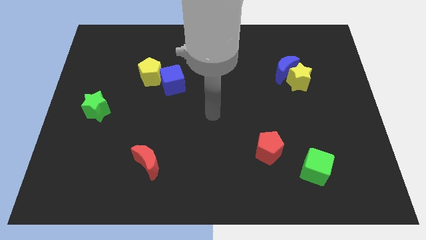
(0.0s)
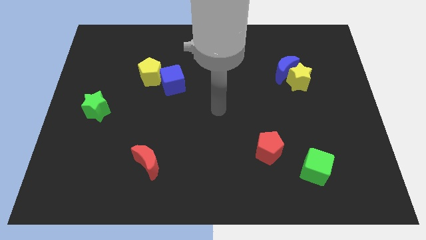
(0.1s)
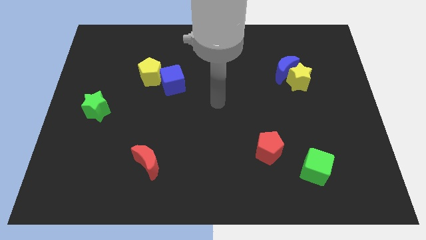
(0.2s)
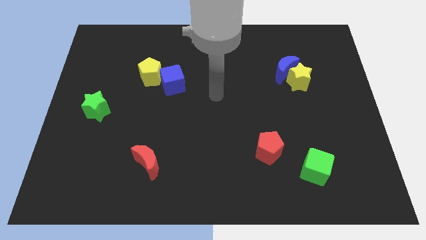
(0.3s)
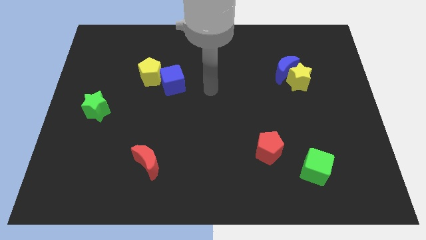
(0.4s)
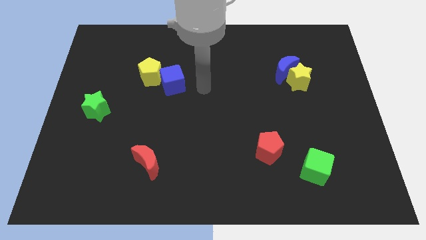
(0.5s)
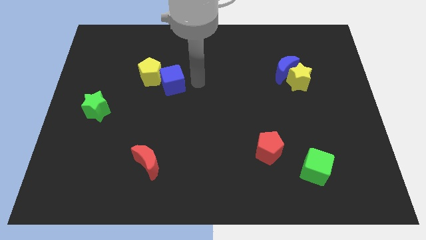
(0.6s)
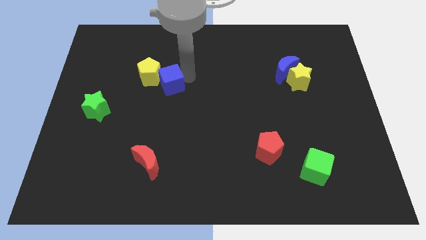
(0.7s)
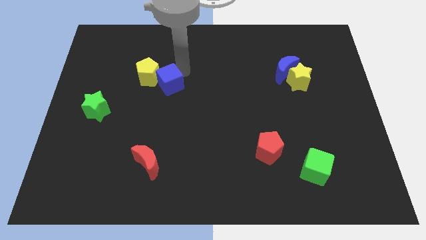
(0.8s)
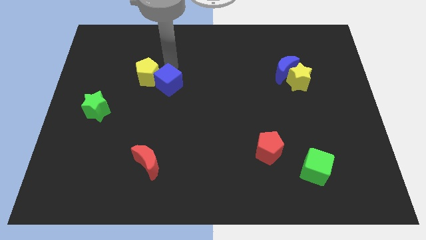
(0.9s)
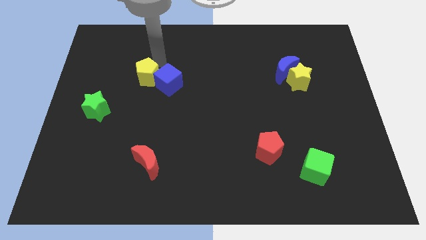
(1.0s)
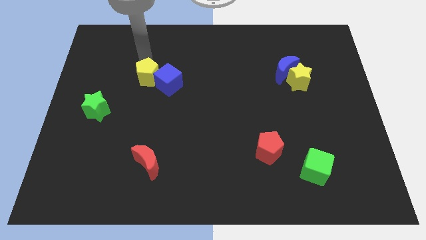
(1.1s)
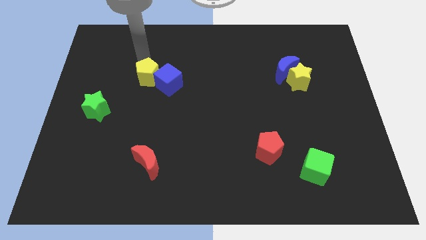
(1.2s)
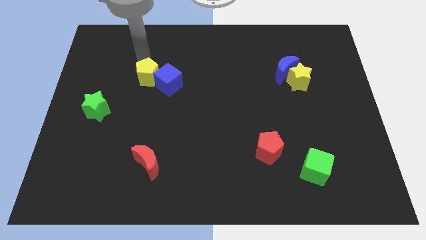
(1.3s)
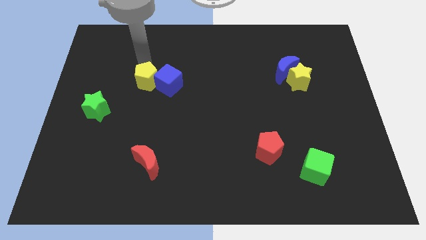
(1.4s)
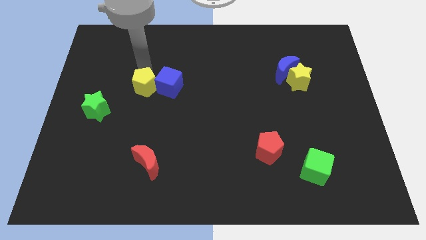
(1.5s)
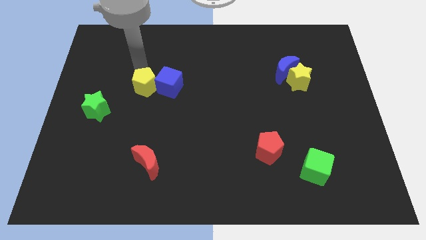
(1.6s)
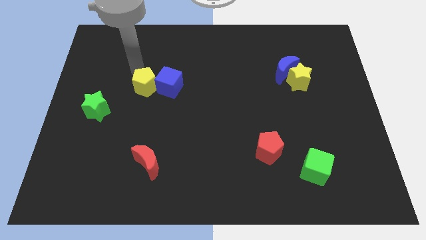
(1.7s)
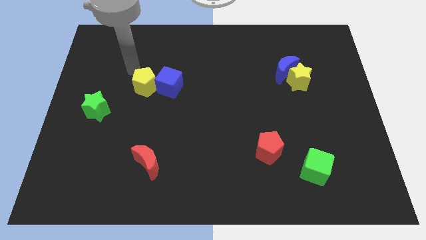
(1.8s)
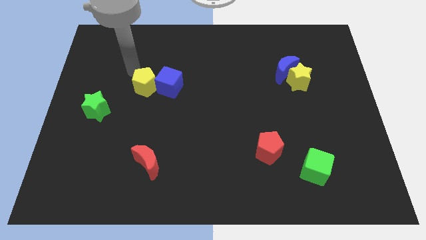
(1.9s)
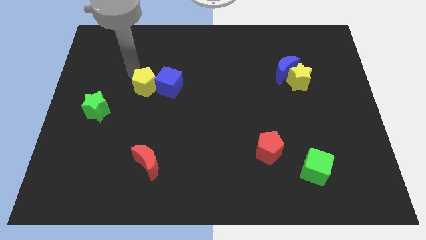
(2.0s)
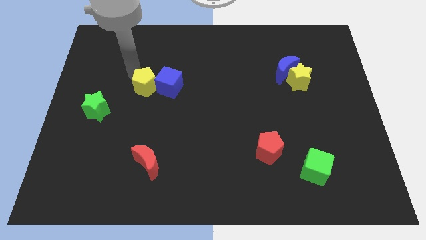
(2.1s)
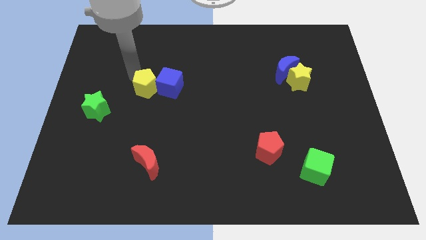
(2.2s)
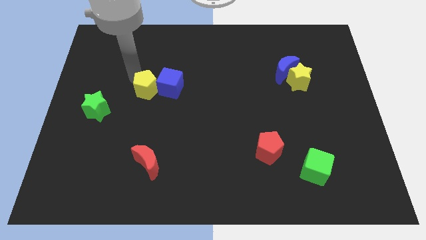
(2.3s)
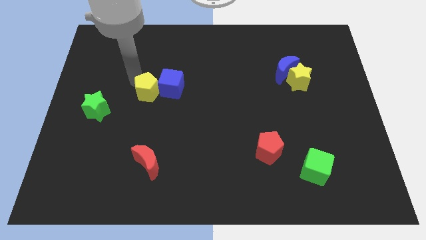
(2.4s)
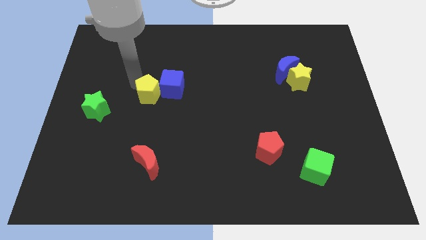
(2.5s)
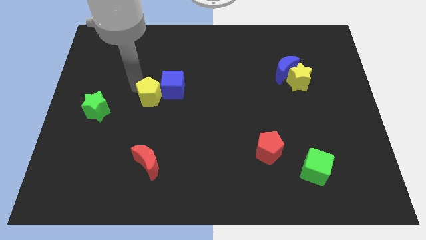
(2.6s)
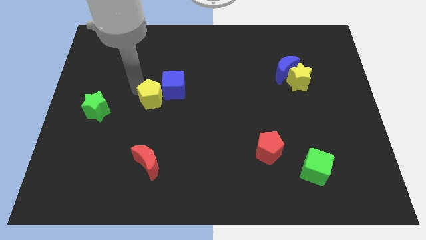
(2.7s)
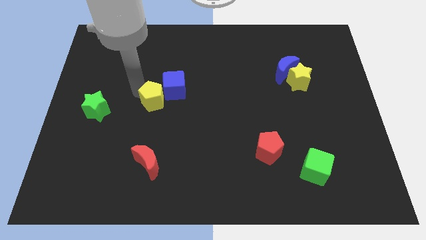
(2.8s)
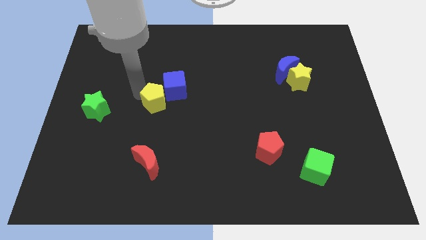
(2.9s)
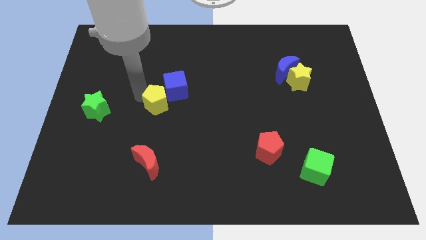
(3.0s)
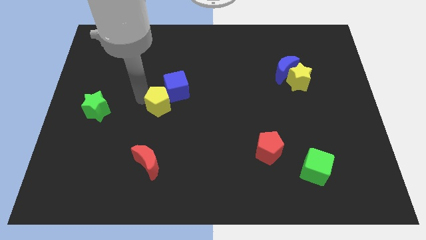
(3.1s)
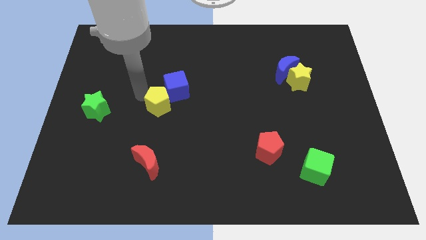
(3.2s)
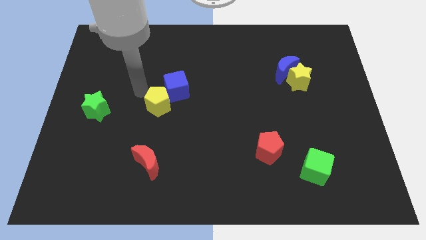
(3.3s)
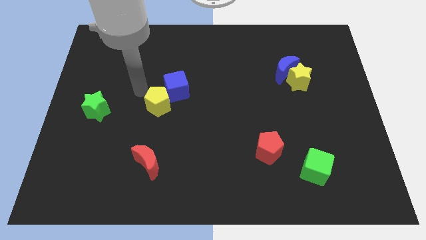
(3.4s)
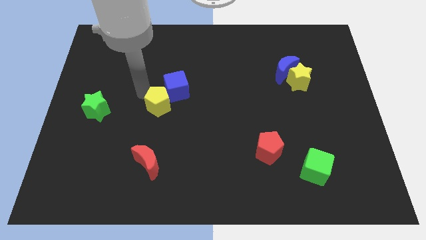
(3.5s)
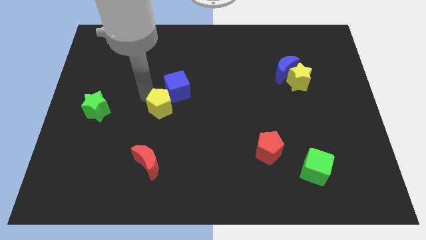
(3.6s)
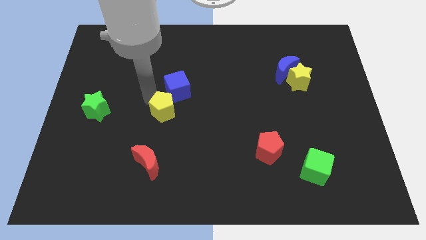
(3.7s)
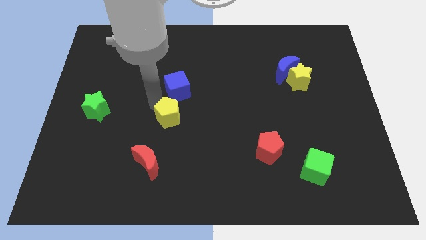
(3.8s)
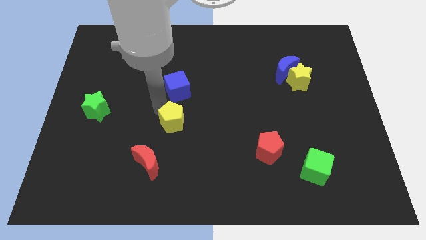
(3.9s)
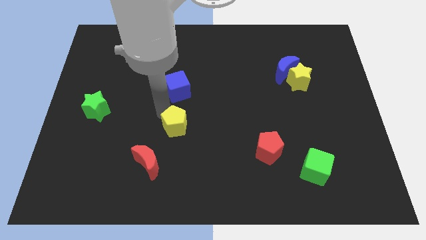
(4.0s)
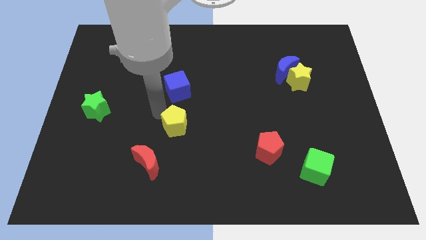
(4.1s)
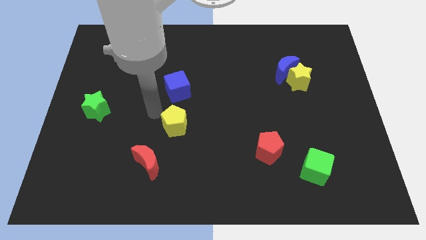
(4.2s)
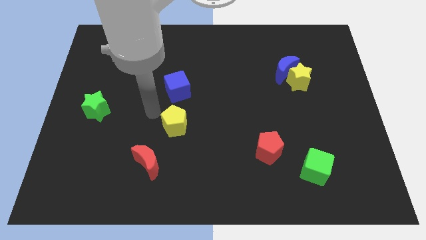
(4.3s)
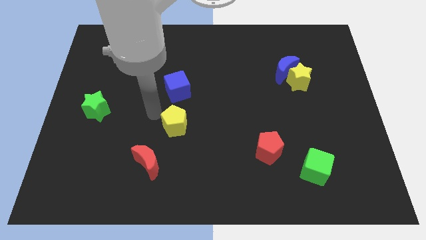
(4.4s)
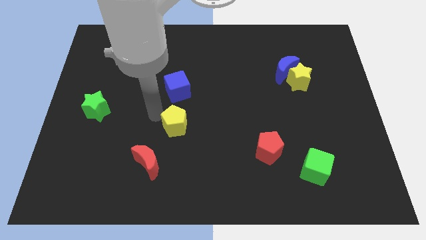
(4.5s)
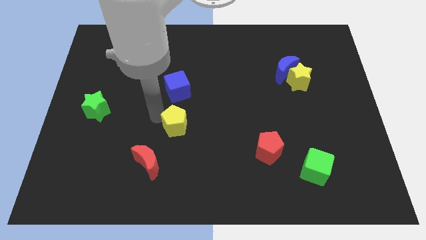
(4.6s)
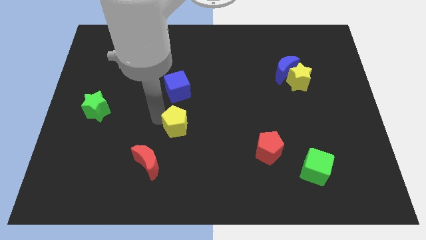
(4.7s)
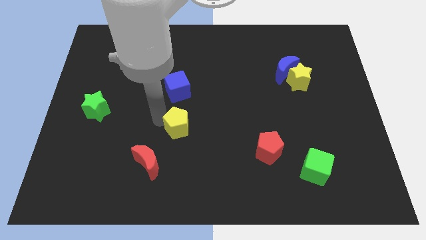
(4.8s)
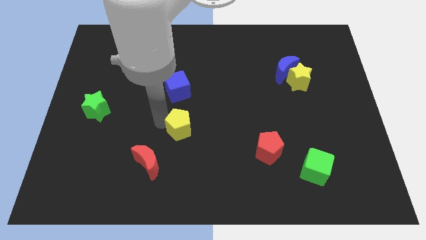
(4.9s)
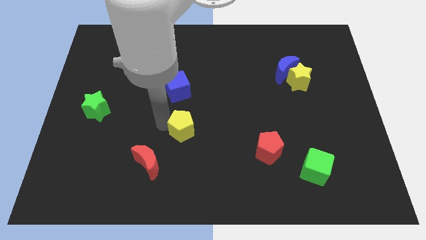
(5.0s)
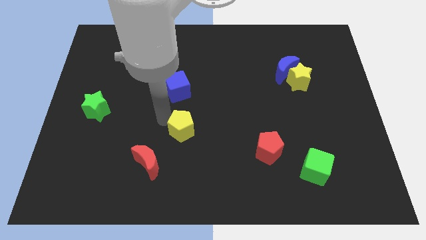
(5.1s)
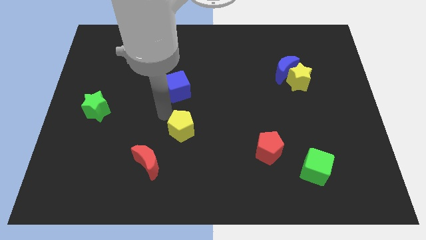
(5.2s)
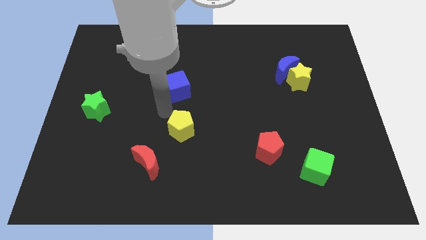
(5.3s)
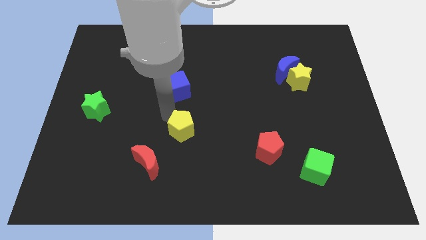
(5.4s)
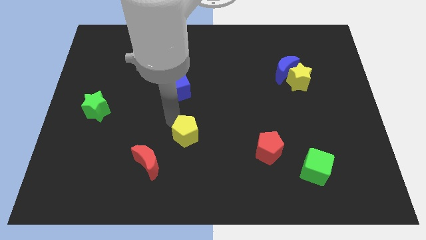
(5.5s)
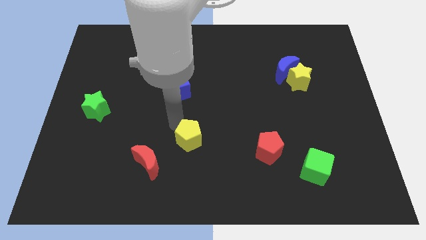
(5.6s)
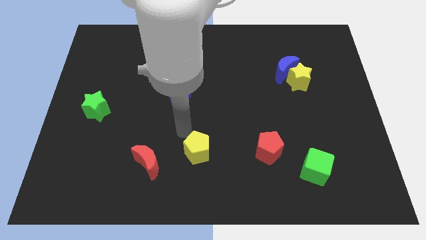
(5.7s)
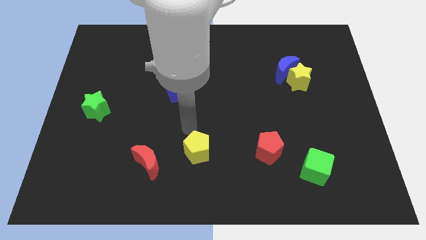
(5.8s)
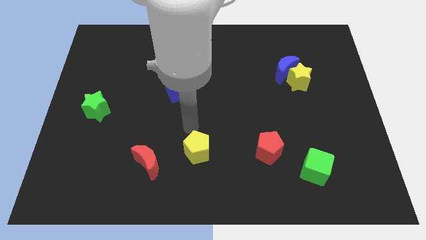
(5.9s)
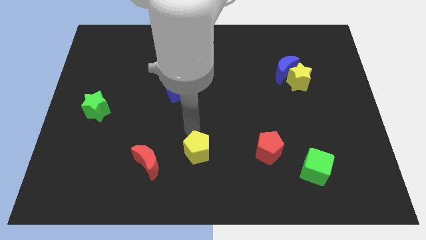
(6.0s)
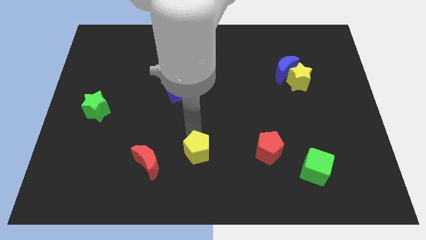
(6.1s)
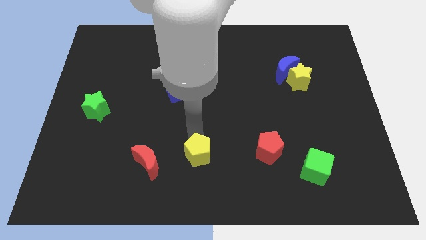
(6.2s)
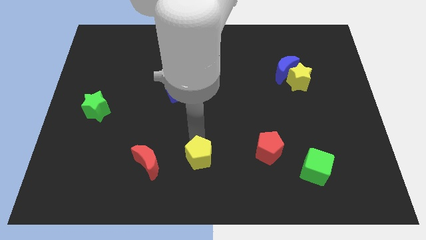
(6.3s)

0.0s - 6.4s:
slide the yellow pentagon to the bottom side
